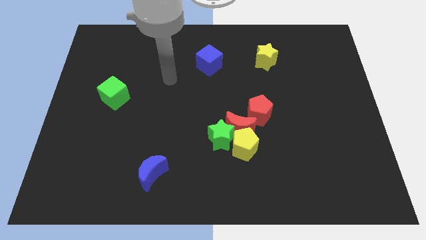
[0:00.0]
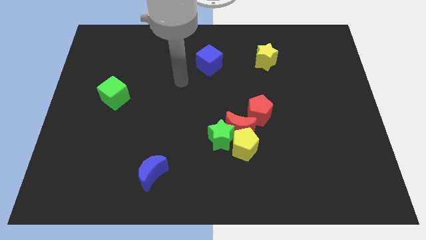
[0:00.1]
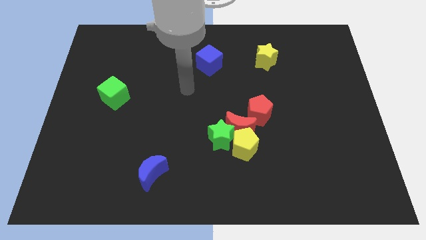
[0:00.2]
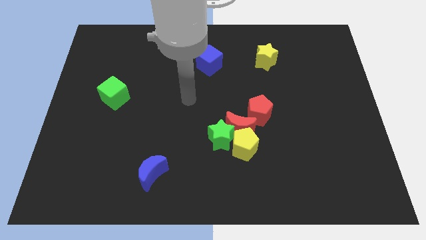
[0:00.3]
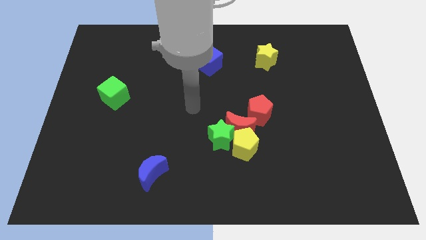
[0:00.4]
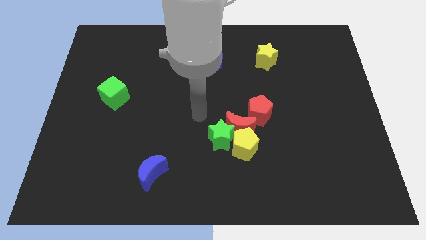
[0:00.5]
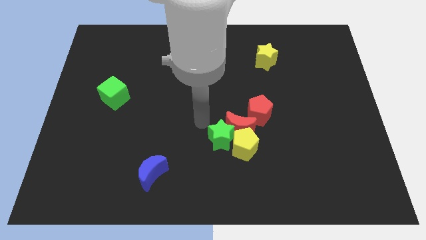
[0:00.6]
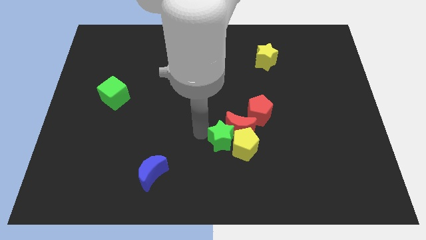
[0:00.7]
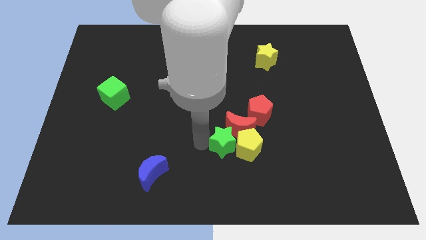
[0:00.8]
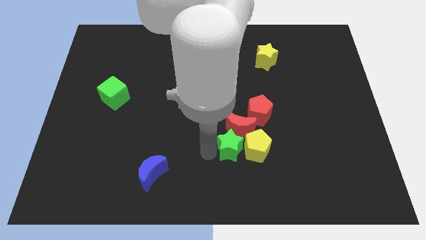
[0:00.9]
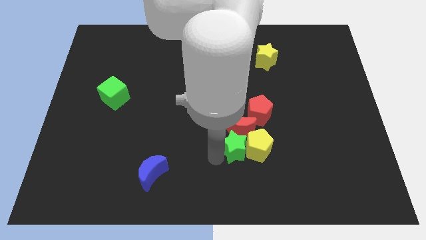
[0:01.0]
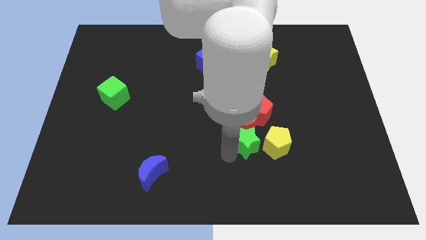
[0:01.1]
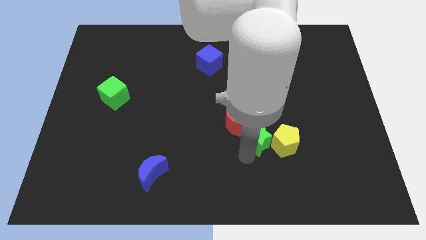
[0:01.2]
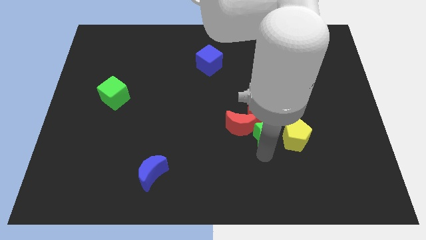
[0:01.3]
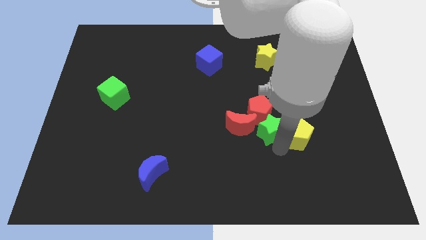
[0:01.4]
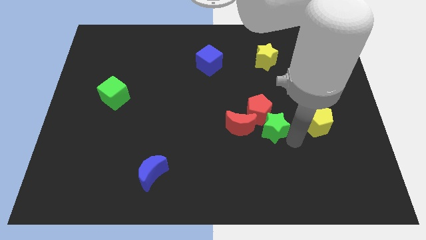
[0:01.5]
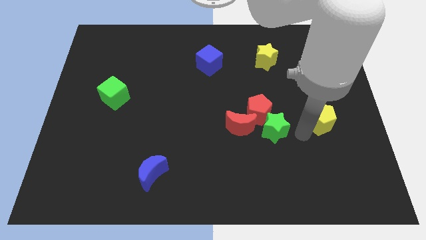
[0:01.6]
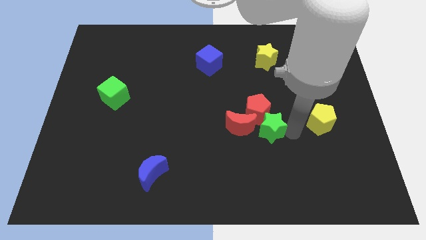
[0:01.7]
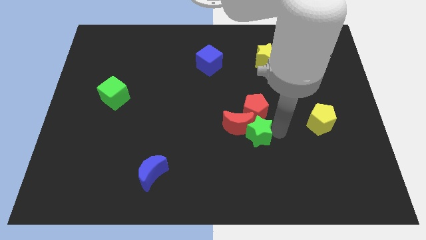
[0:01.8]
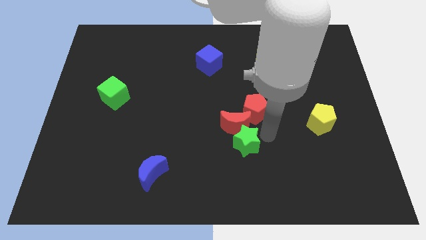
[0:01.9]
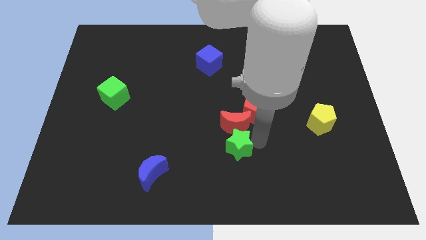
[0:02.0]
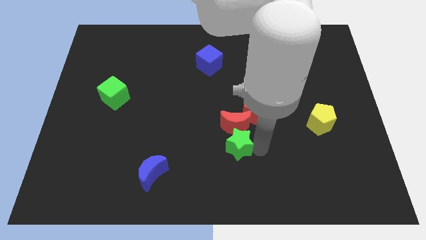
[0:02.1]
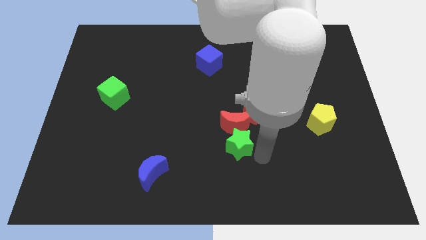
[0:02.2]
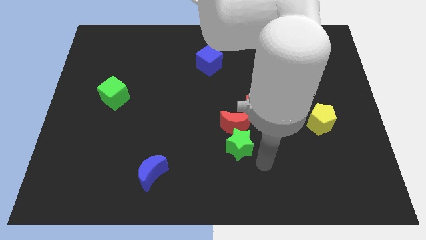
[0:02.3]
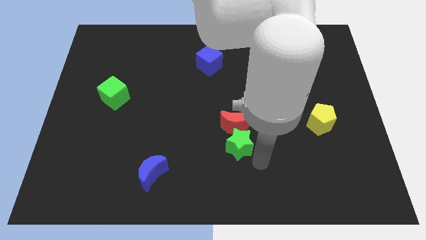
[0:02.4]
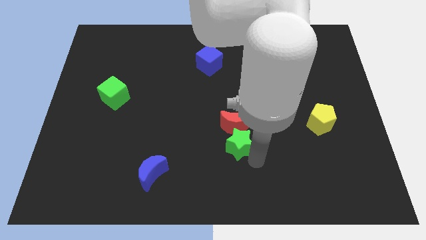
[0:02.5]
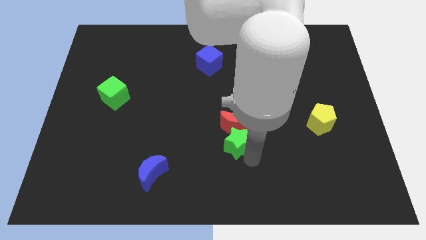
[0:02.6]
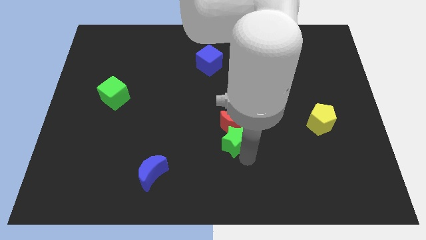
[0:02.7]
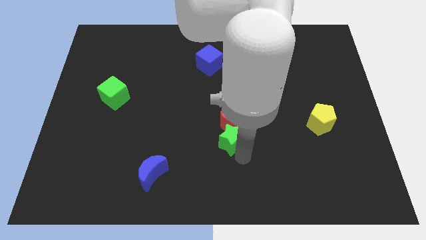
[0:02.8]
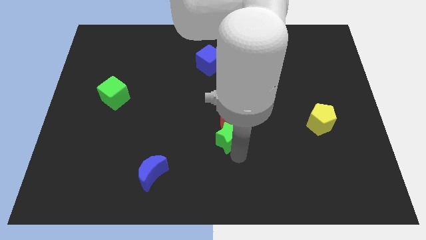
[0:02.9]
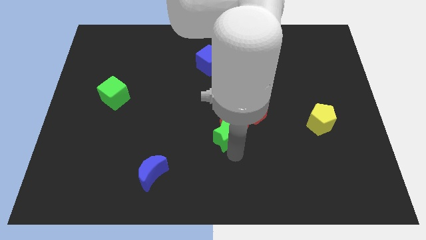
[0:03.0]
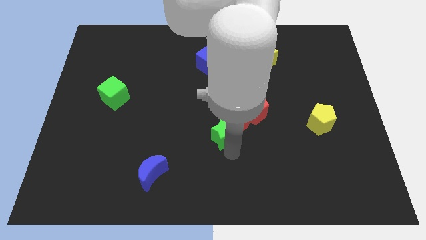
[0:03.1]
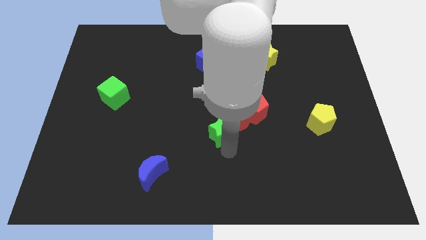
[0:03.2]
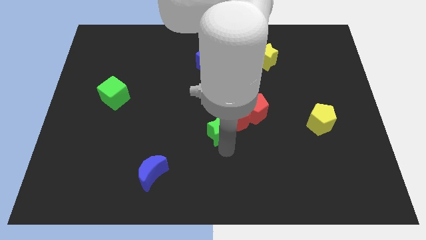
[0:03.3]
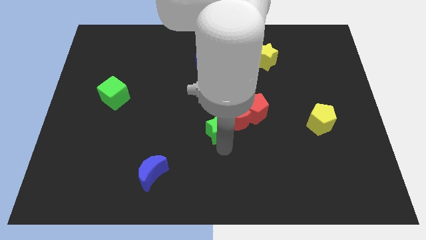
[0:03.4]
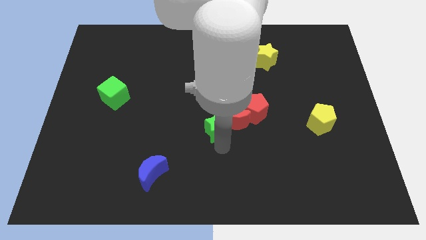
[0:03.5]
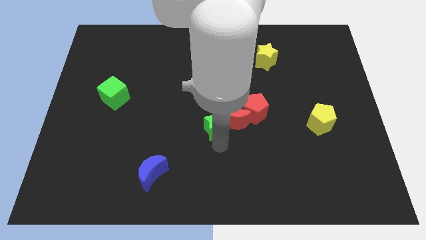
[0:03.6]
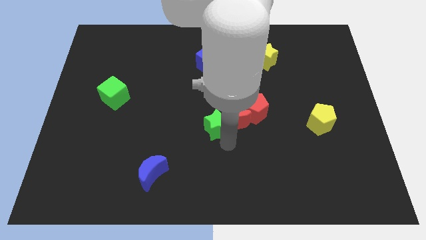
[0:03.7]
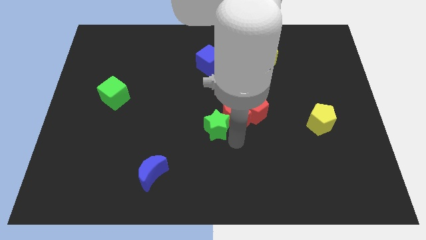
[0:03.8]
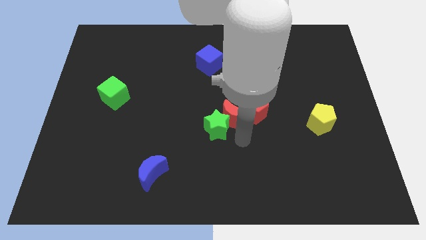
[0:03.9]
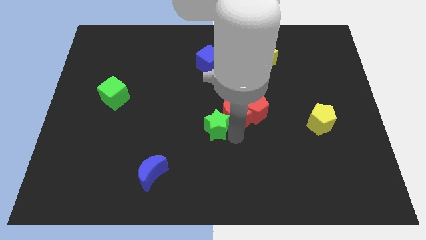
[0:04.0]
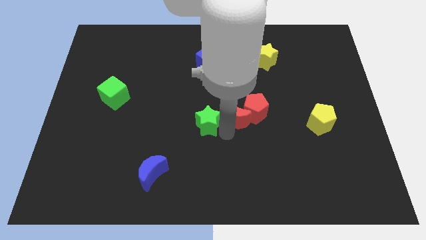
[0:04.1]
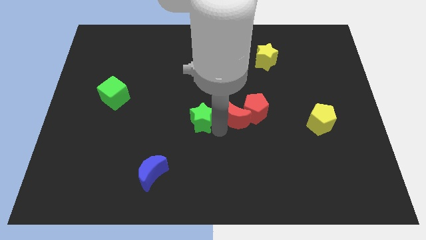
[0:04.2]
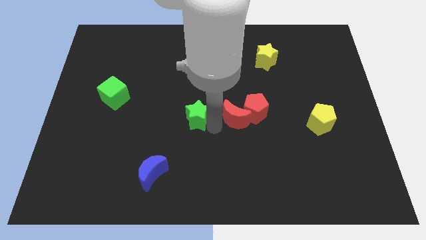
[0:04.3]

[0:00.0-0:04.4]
slightly push the green star up and left

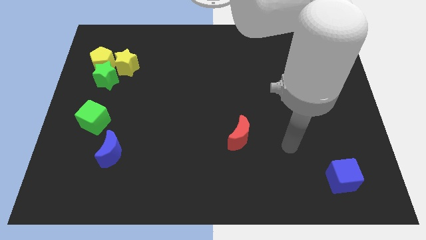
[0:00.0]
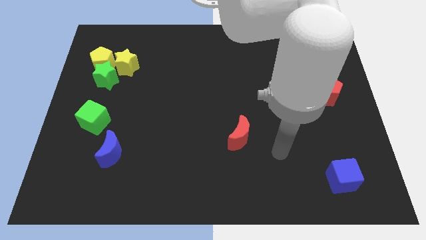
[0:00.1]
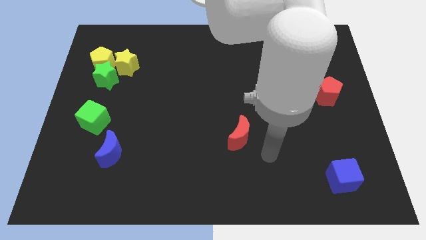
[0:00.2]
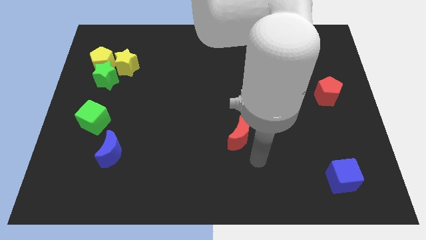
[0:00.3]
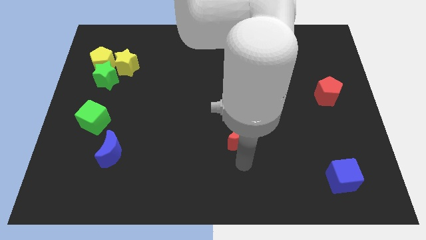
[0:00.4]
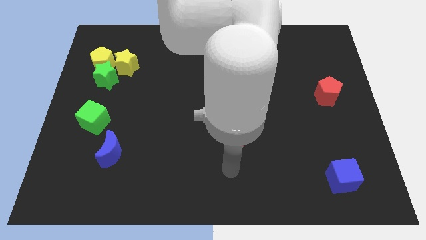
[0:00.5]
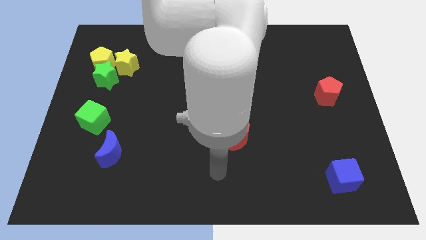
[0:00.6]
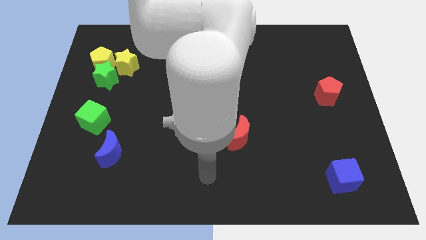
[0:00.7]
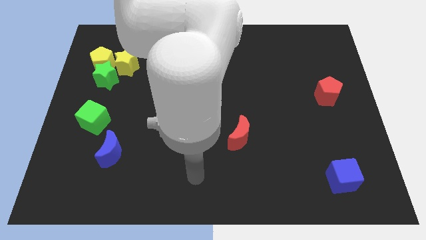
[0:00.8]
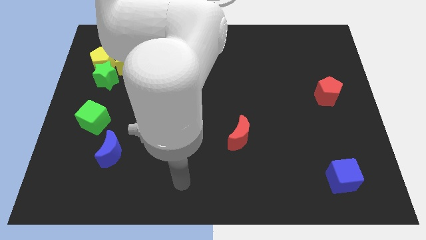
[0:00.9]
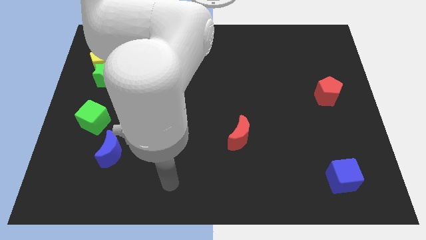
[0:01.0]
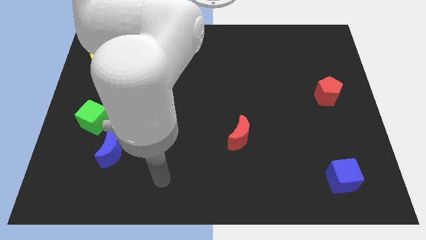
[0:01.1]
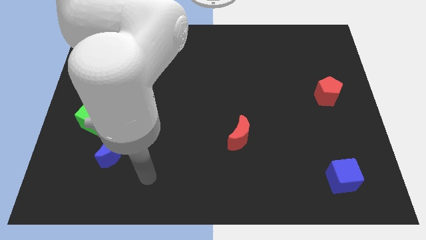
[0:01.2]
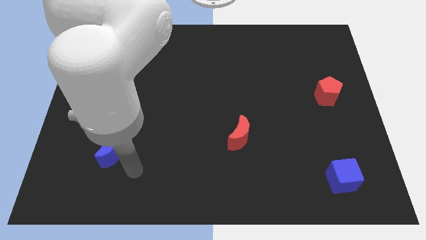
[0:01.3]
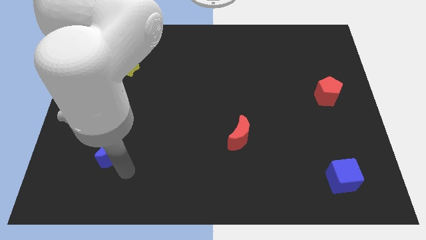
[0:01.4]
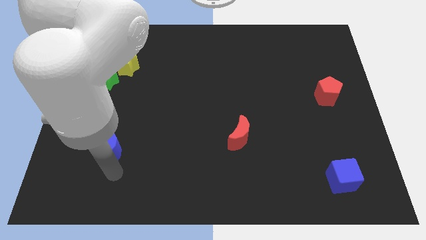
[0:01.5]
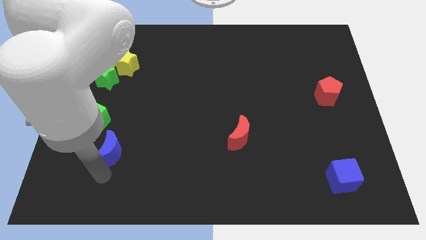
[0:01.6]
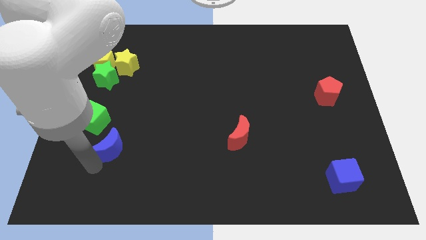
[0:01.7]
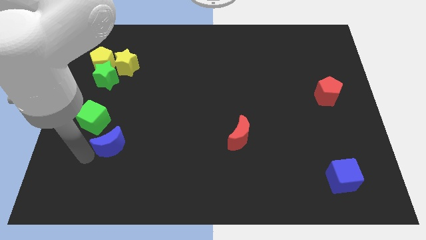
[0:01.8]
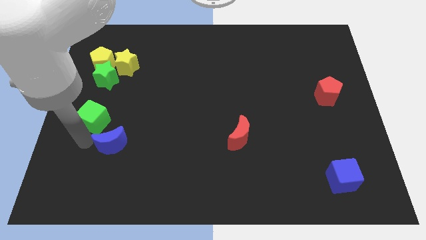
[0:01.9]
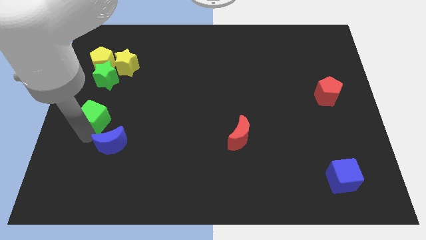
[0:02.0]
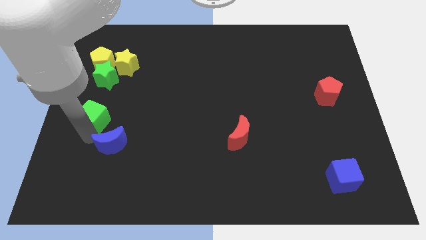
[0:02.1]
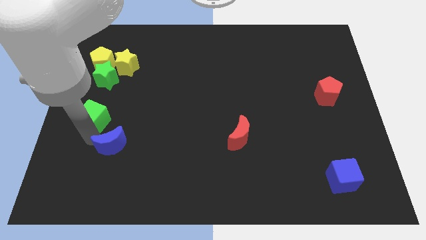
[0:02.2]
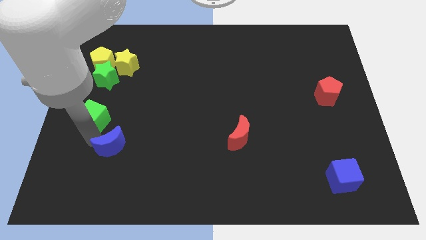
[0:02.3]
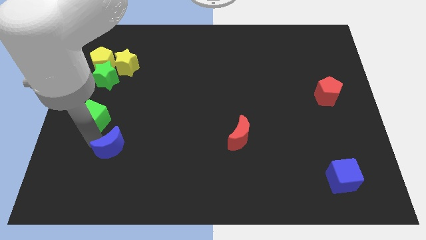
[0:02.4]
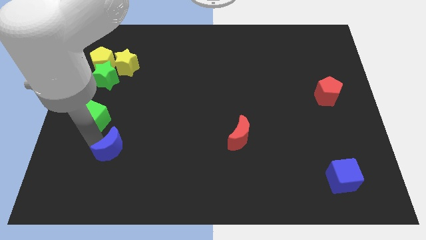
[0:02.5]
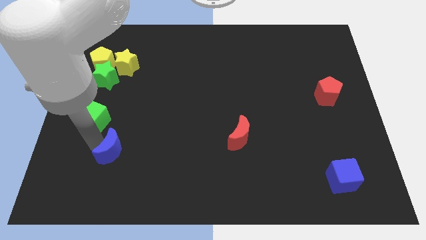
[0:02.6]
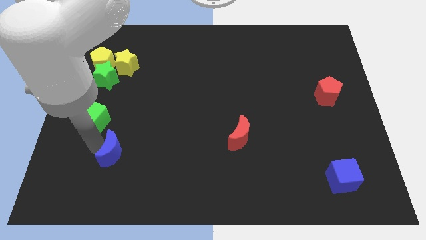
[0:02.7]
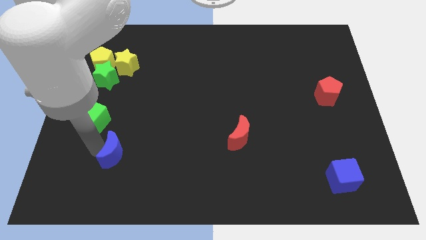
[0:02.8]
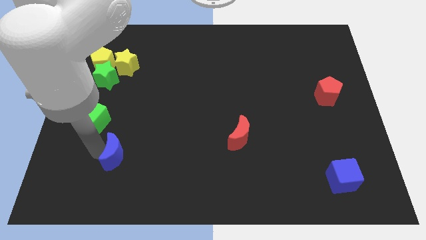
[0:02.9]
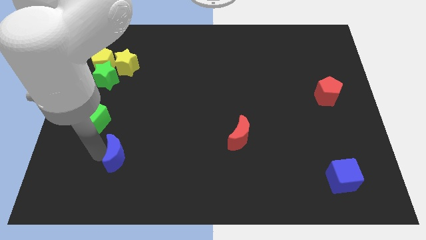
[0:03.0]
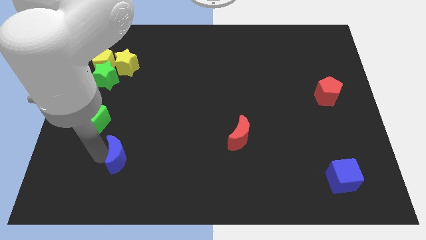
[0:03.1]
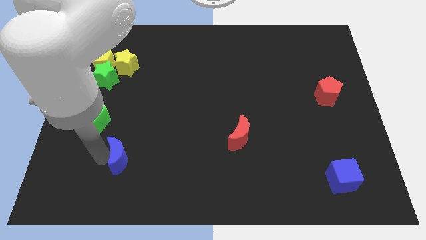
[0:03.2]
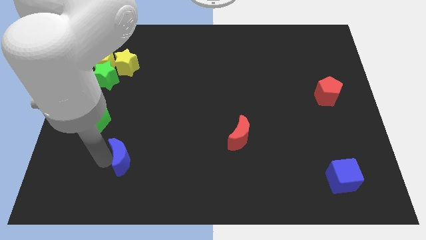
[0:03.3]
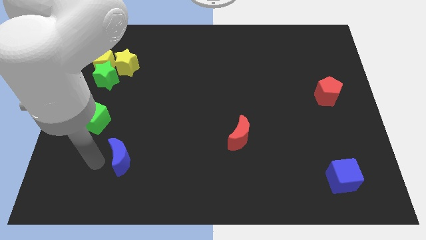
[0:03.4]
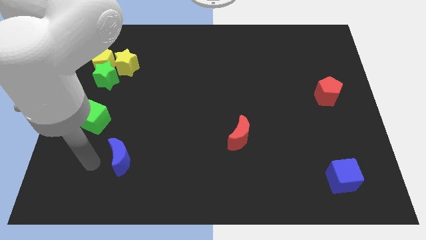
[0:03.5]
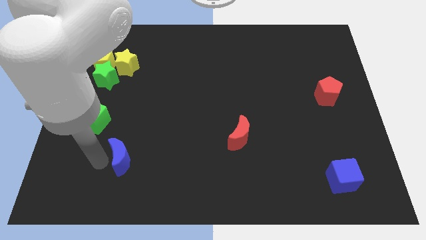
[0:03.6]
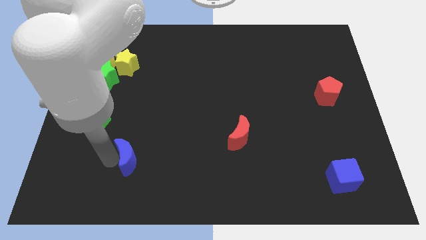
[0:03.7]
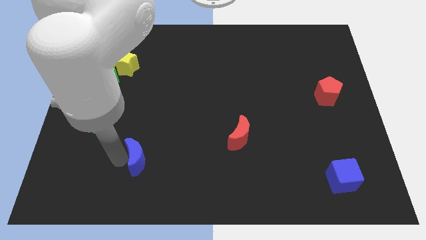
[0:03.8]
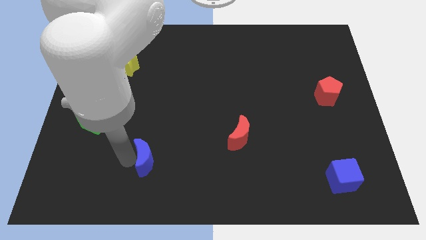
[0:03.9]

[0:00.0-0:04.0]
push the blue moon to the right a little
